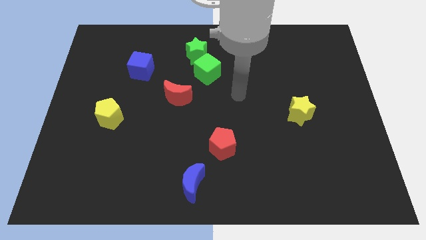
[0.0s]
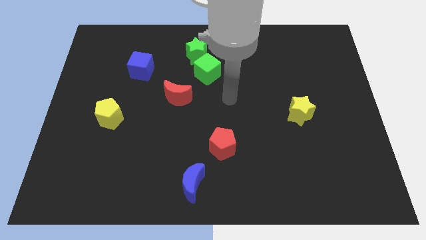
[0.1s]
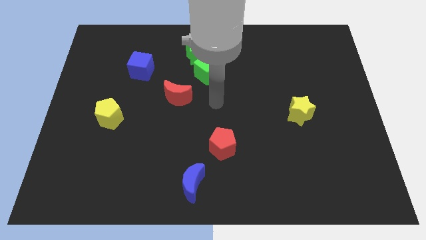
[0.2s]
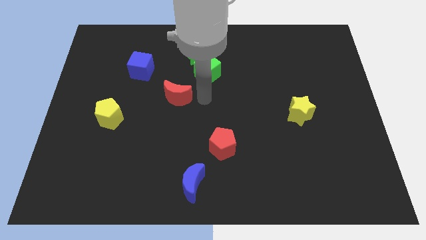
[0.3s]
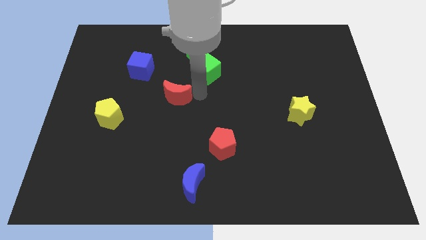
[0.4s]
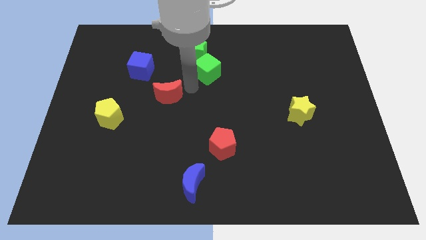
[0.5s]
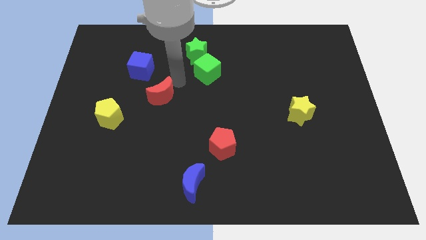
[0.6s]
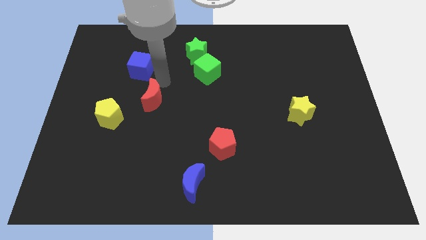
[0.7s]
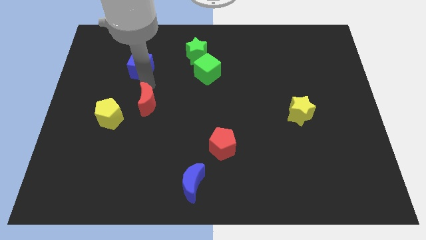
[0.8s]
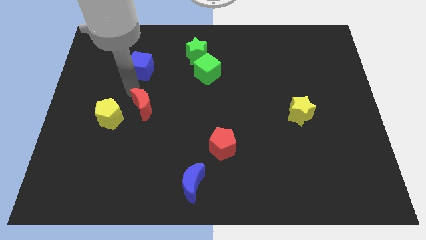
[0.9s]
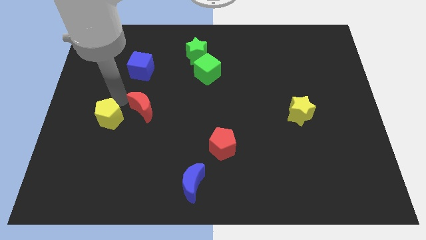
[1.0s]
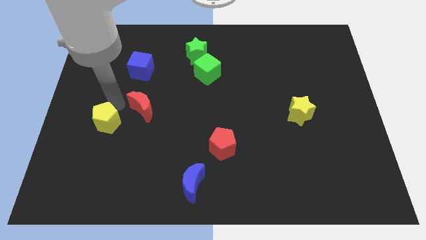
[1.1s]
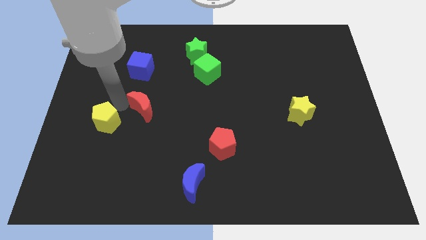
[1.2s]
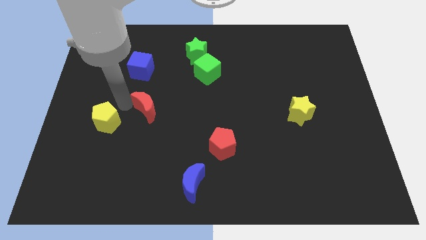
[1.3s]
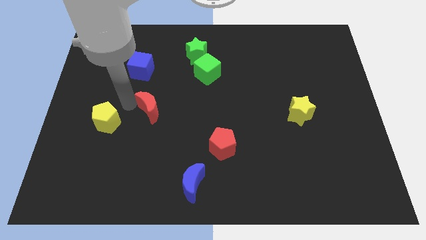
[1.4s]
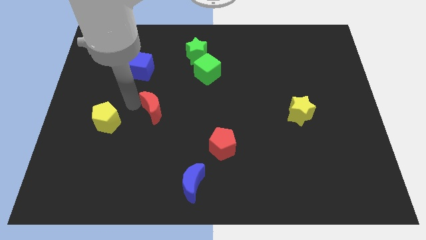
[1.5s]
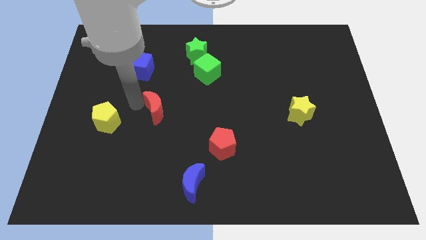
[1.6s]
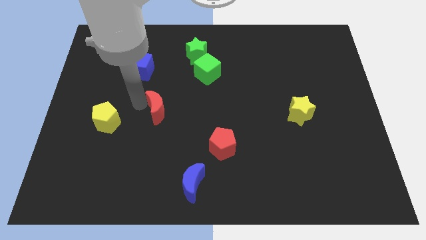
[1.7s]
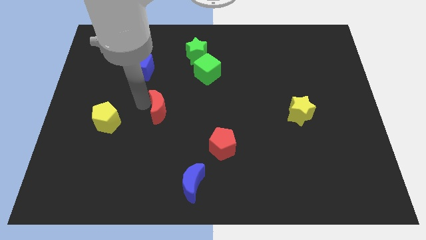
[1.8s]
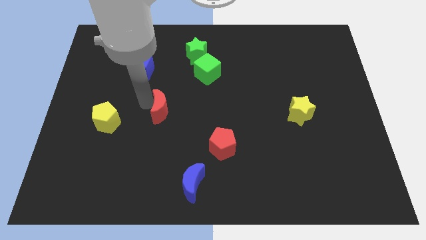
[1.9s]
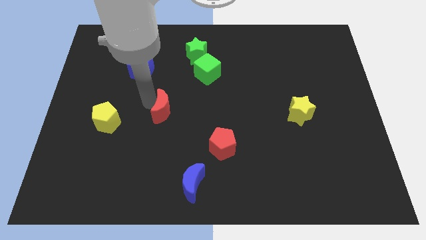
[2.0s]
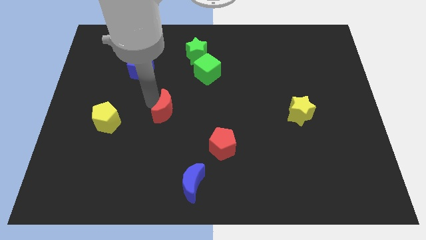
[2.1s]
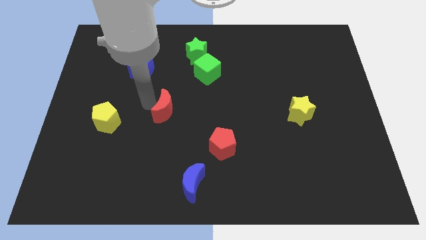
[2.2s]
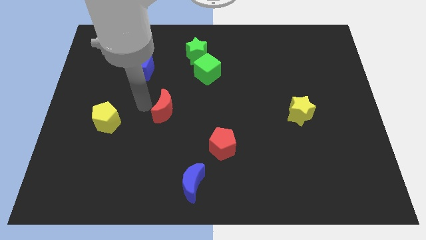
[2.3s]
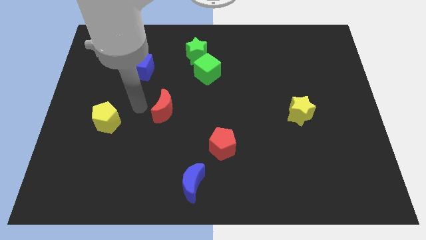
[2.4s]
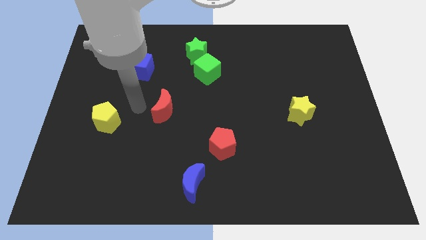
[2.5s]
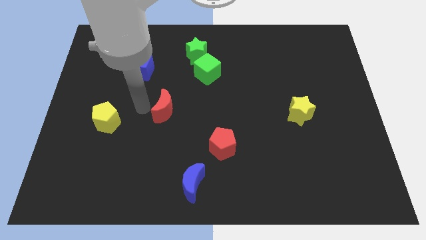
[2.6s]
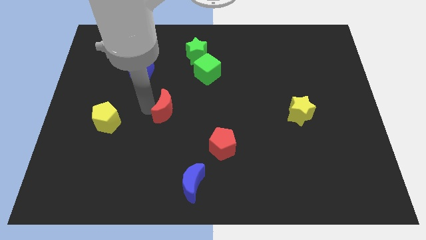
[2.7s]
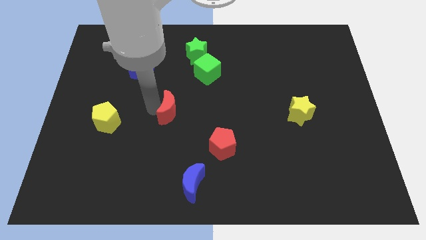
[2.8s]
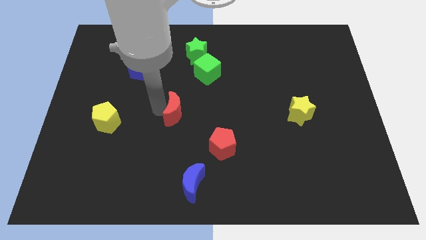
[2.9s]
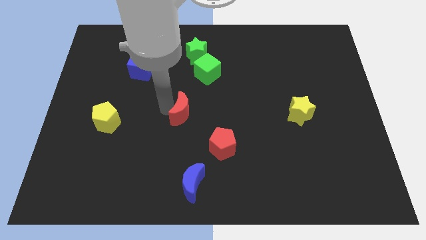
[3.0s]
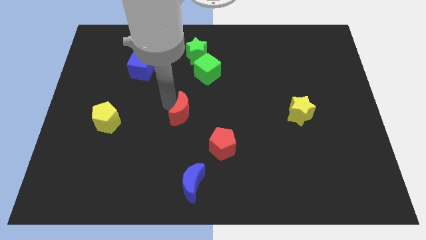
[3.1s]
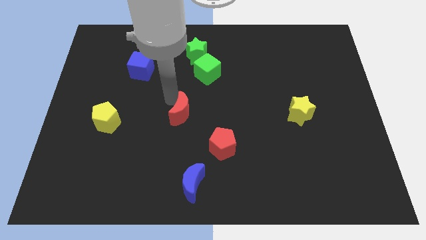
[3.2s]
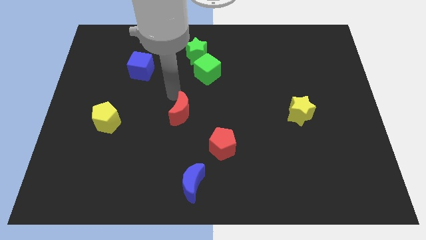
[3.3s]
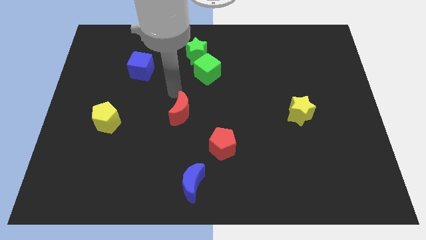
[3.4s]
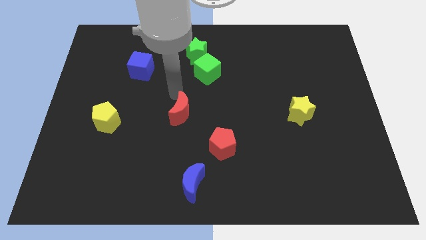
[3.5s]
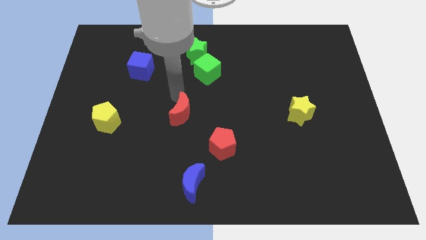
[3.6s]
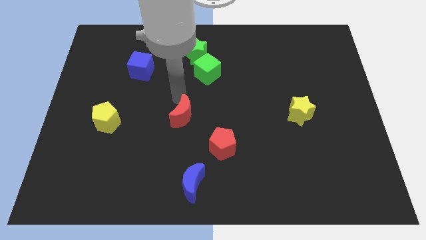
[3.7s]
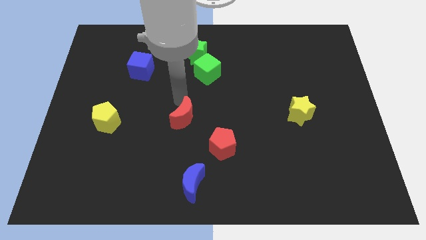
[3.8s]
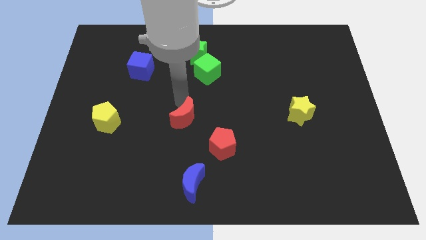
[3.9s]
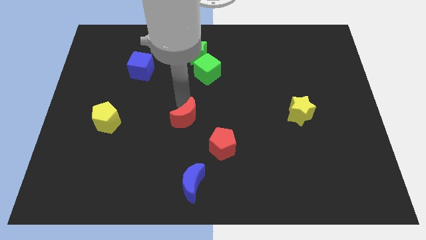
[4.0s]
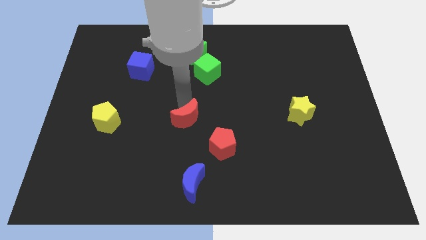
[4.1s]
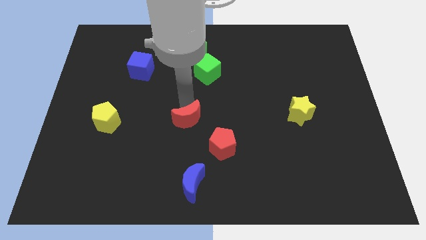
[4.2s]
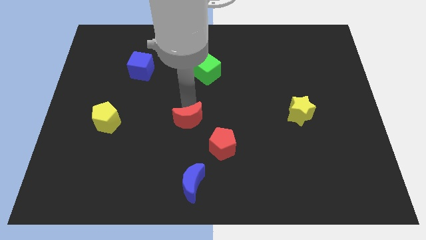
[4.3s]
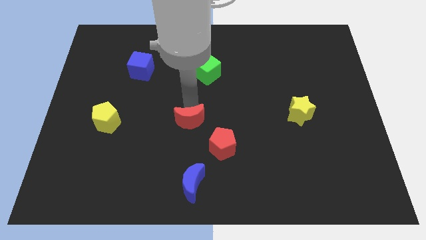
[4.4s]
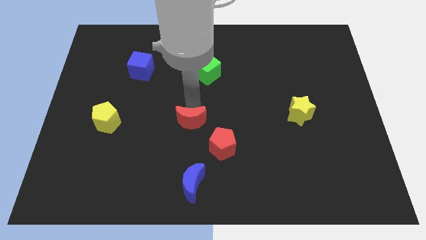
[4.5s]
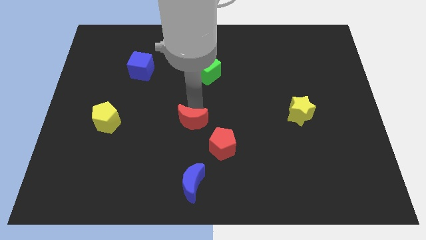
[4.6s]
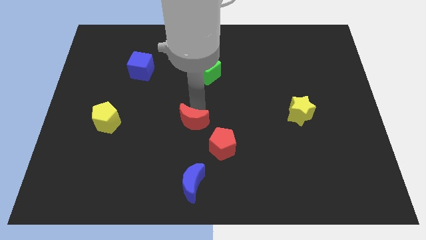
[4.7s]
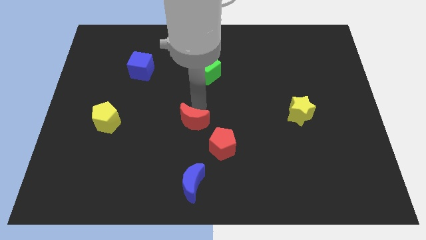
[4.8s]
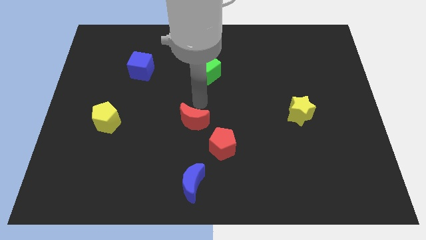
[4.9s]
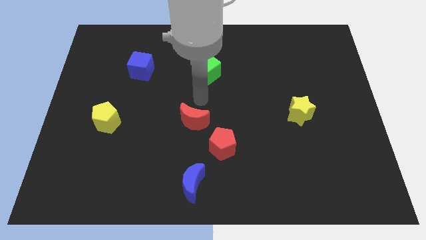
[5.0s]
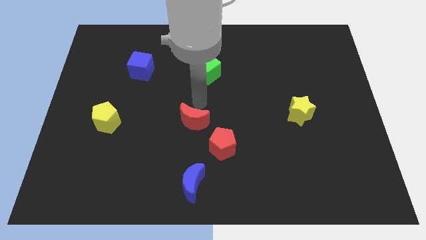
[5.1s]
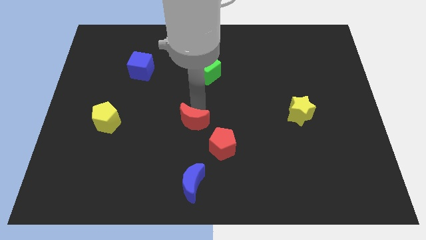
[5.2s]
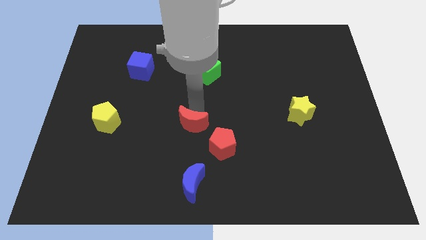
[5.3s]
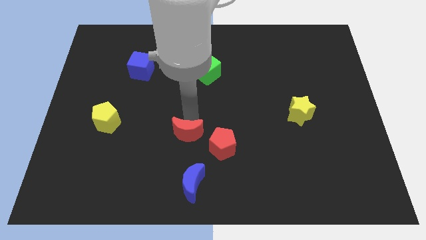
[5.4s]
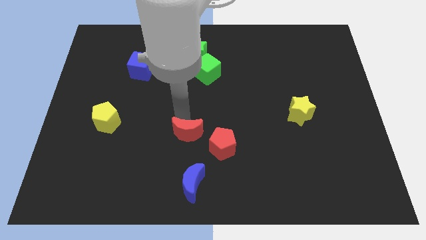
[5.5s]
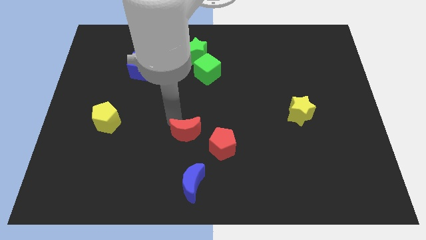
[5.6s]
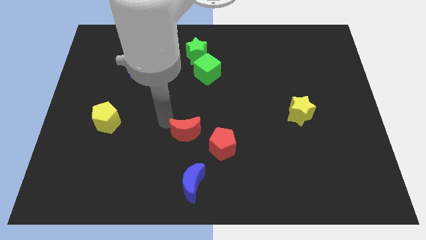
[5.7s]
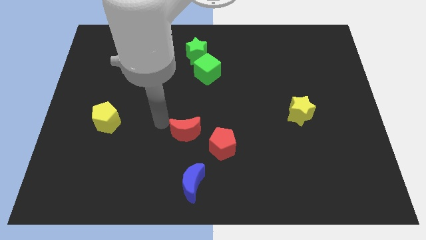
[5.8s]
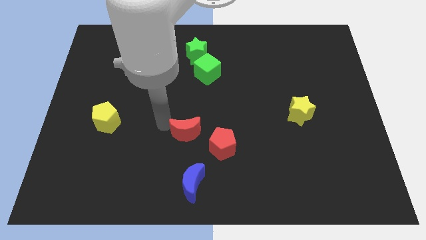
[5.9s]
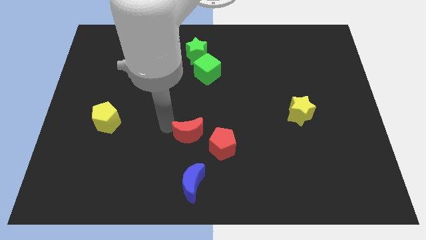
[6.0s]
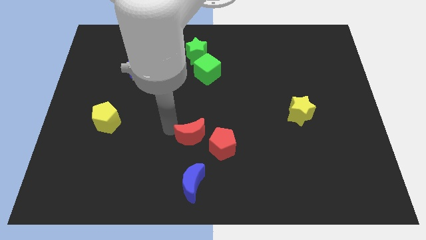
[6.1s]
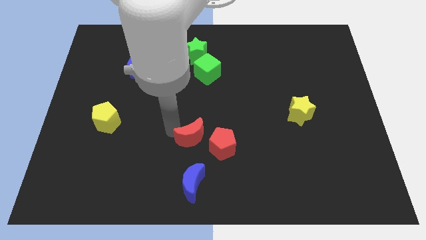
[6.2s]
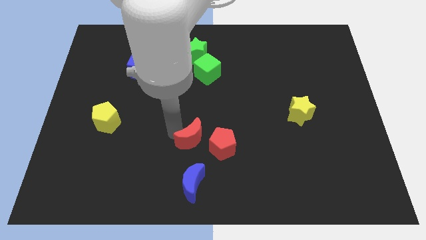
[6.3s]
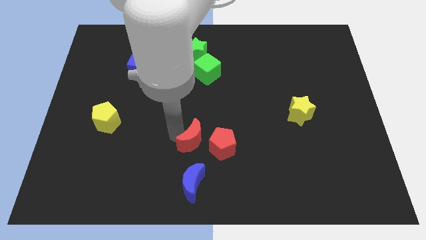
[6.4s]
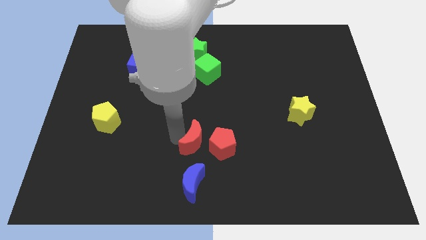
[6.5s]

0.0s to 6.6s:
push the red moon towards the red pentagon

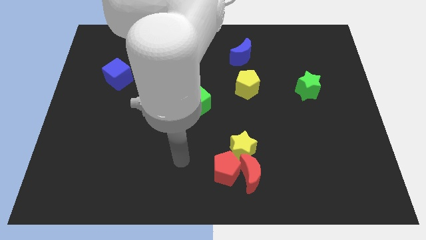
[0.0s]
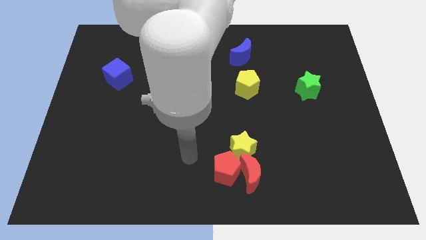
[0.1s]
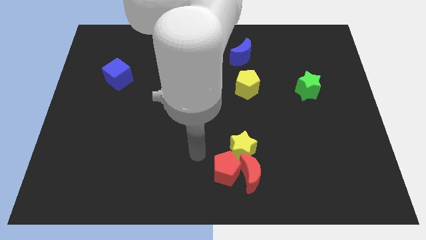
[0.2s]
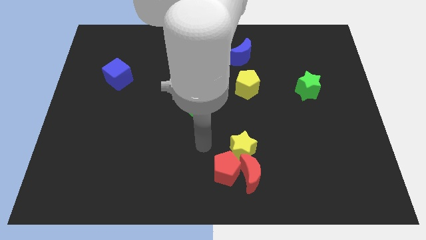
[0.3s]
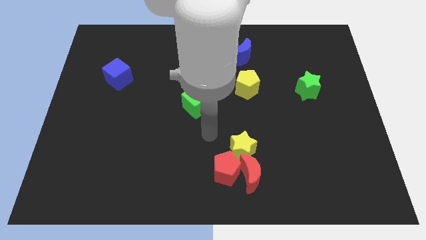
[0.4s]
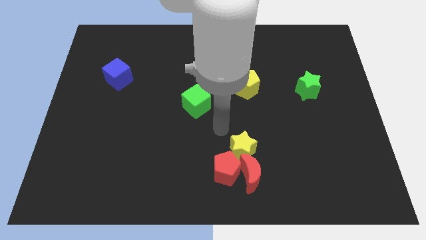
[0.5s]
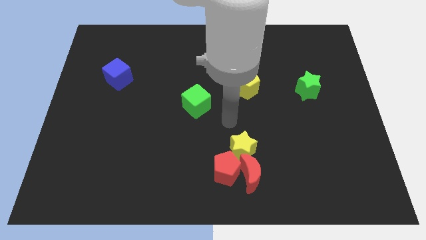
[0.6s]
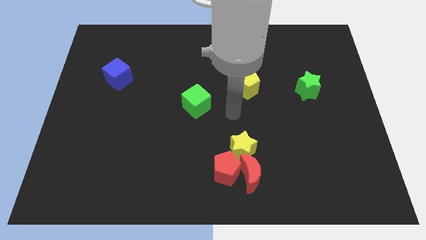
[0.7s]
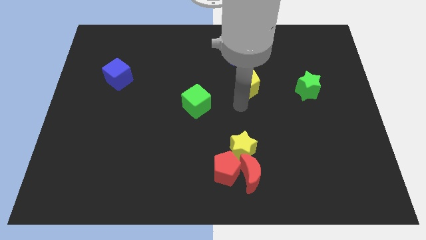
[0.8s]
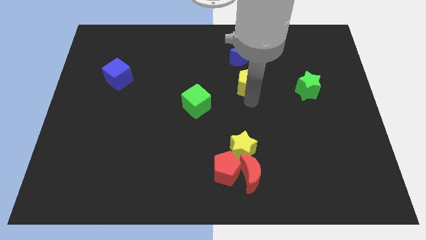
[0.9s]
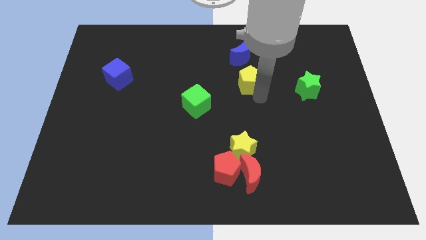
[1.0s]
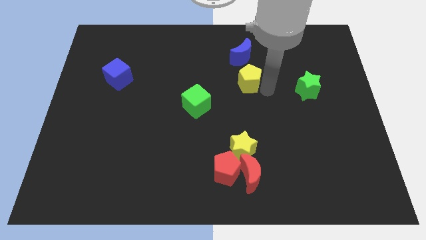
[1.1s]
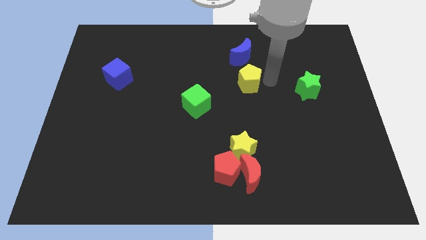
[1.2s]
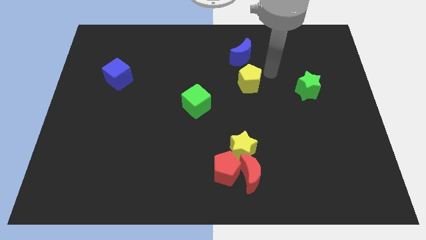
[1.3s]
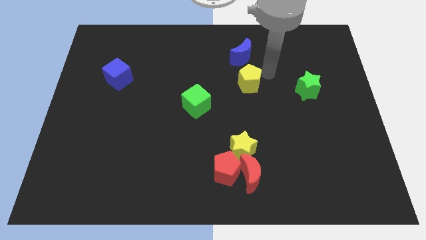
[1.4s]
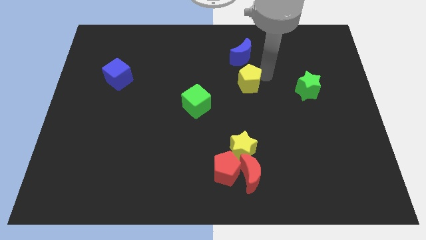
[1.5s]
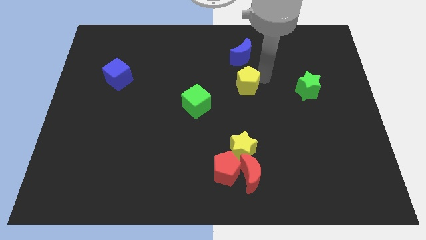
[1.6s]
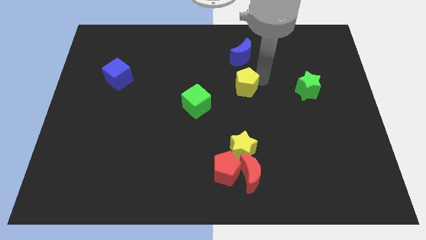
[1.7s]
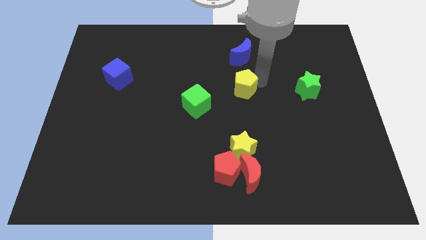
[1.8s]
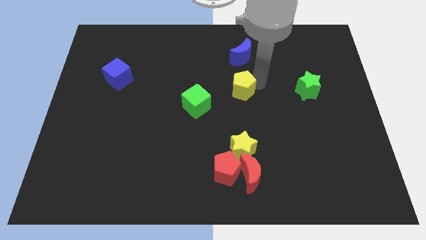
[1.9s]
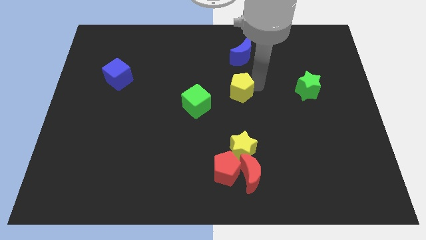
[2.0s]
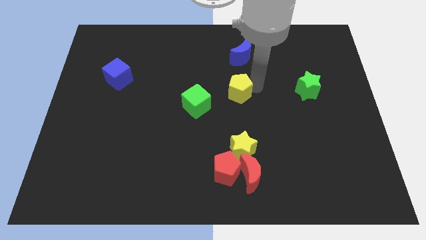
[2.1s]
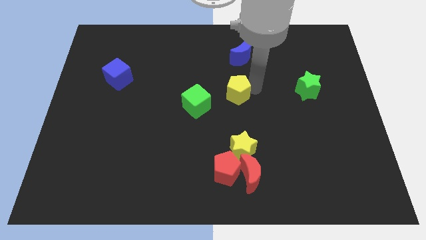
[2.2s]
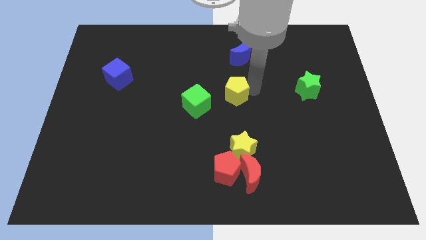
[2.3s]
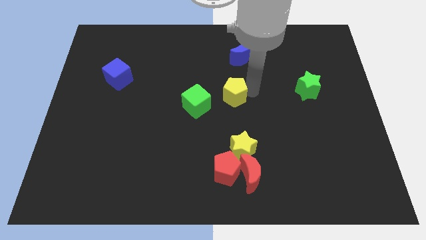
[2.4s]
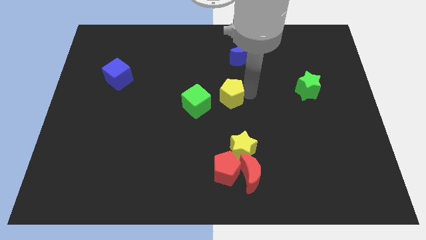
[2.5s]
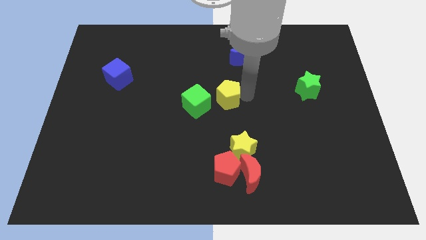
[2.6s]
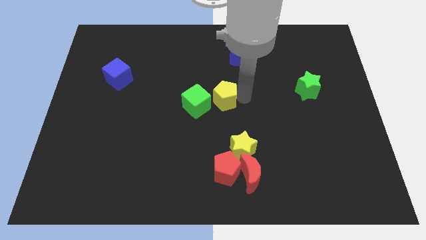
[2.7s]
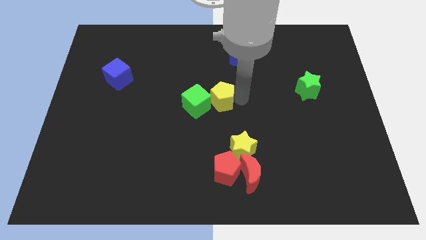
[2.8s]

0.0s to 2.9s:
move the yellow pentagon towards the green cube
